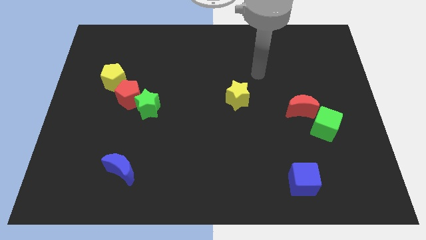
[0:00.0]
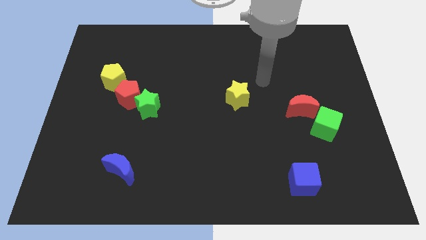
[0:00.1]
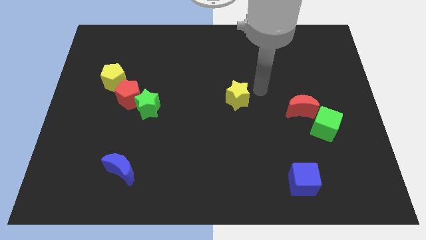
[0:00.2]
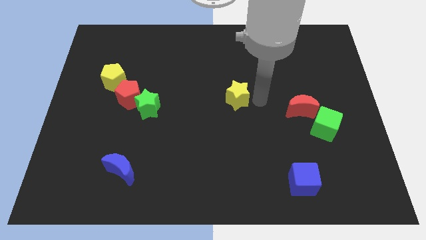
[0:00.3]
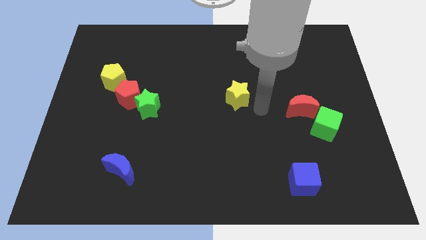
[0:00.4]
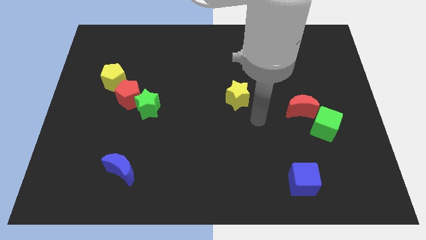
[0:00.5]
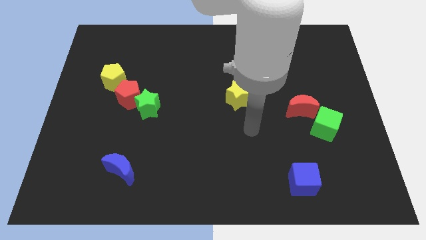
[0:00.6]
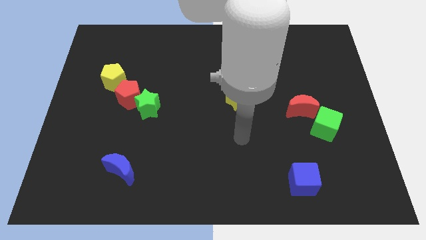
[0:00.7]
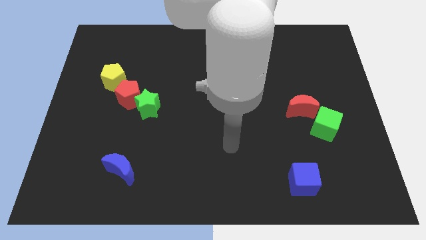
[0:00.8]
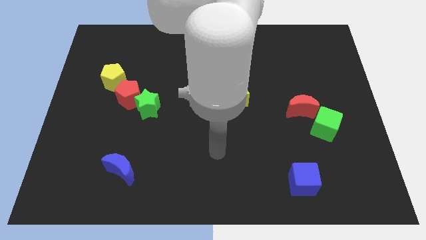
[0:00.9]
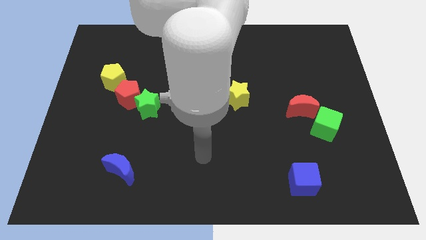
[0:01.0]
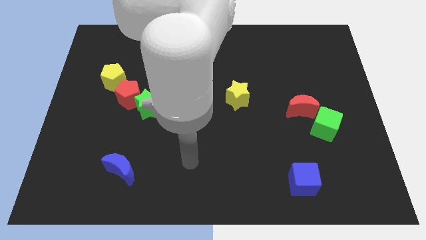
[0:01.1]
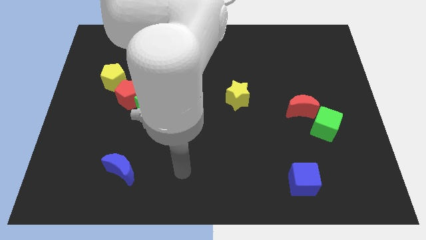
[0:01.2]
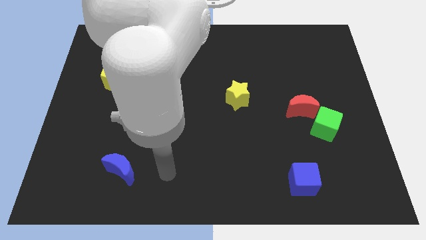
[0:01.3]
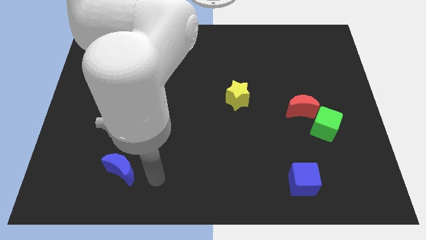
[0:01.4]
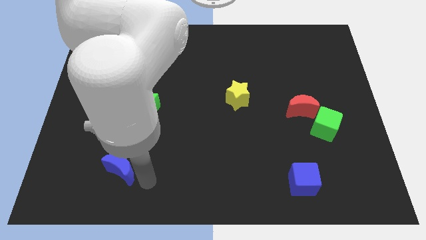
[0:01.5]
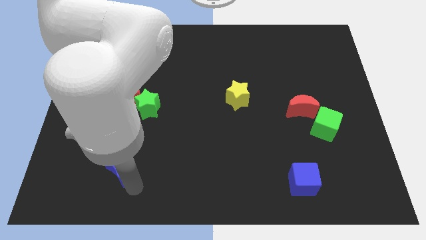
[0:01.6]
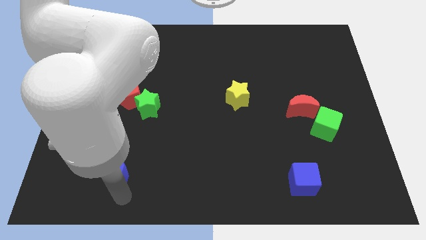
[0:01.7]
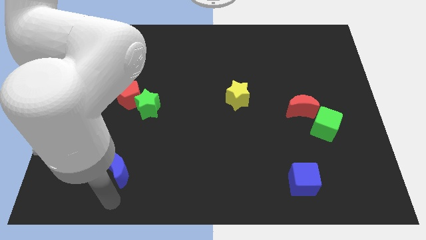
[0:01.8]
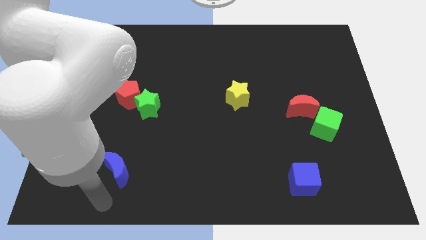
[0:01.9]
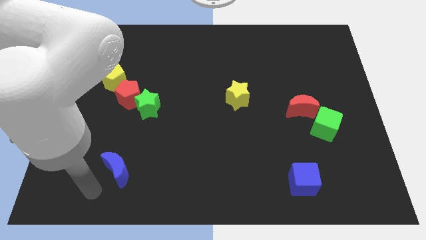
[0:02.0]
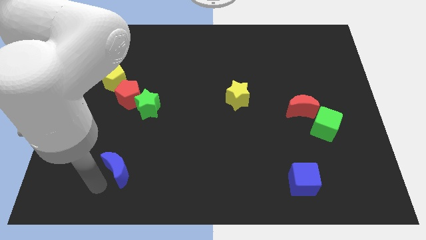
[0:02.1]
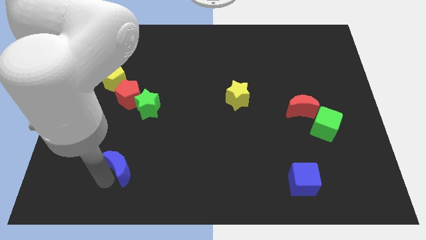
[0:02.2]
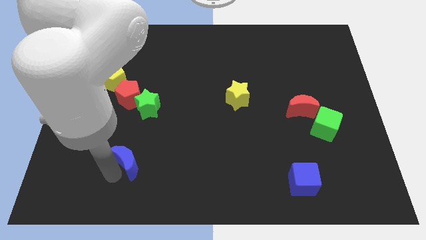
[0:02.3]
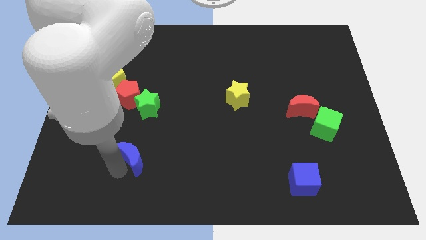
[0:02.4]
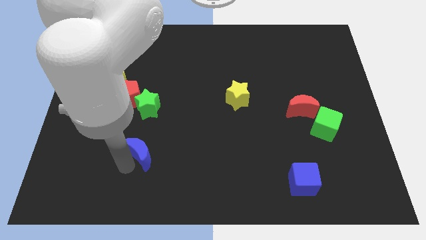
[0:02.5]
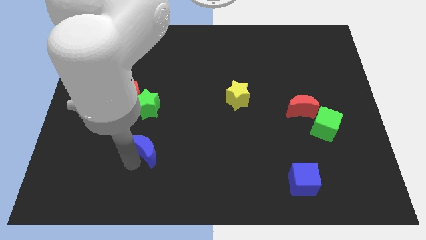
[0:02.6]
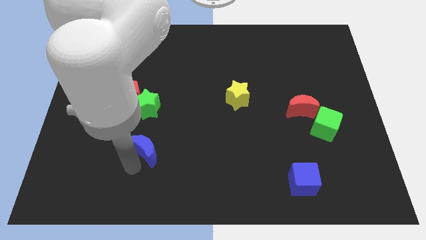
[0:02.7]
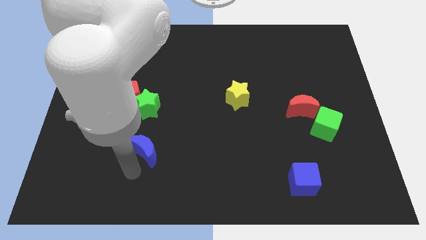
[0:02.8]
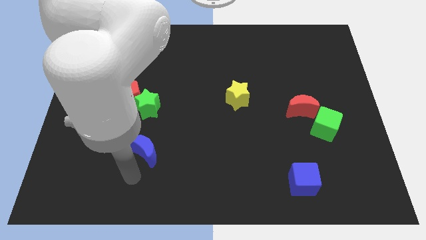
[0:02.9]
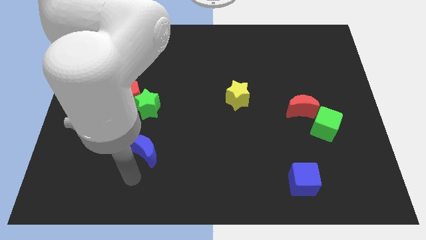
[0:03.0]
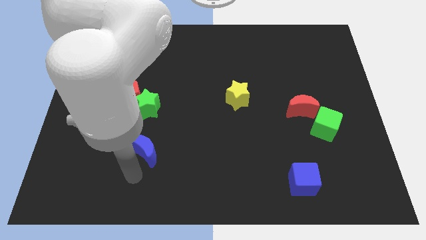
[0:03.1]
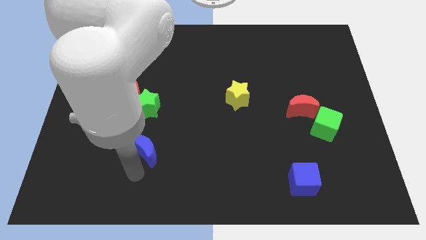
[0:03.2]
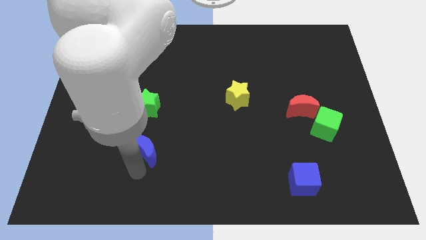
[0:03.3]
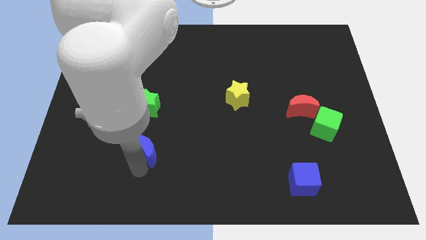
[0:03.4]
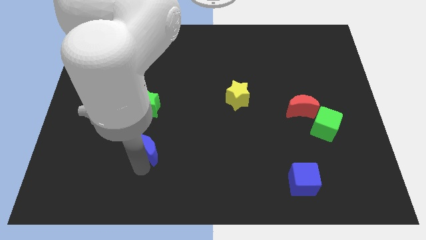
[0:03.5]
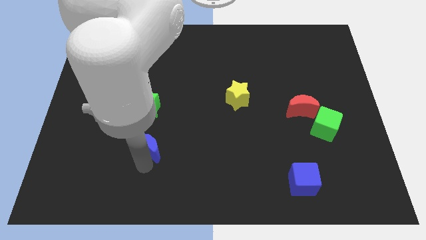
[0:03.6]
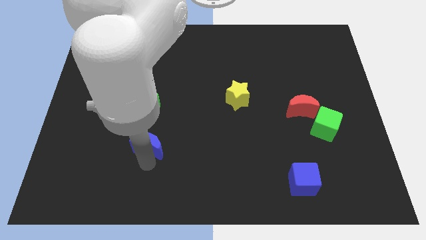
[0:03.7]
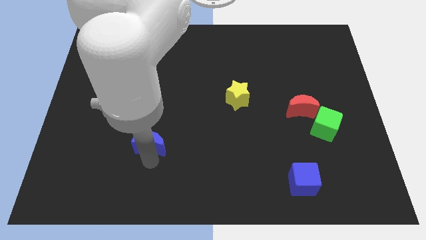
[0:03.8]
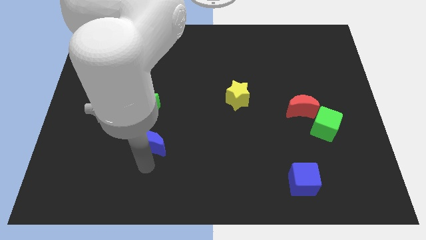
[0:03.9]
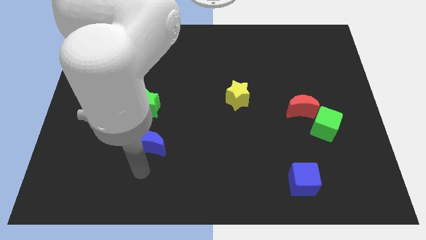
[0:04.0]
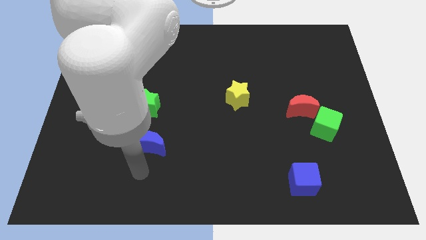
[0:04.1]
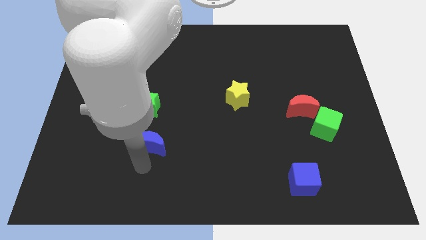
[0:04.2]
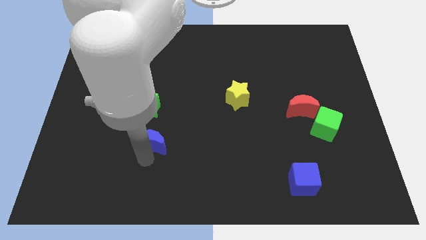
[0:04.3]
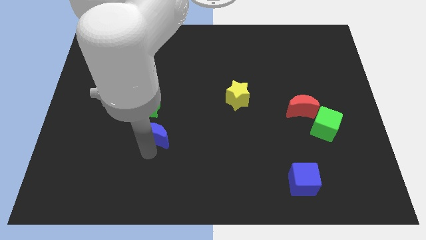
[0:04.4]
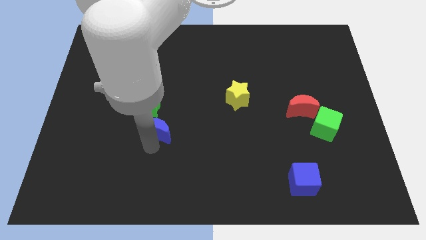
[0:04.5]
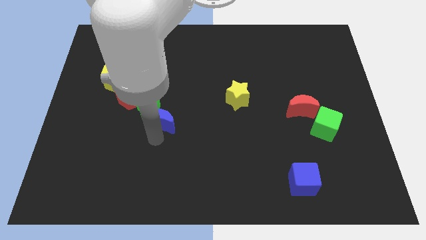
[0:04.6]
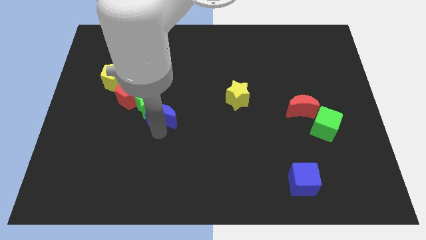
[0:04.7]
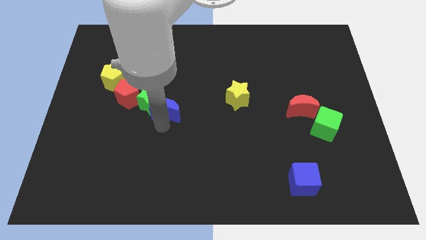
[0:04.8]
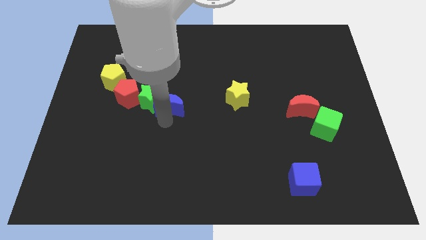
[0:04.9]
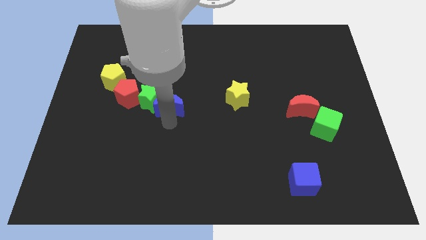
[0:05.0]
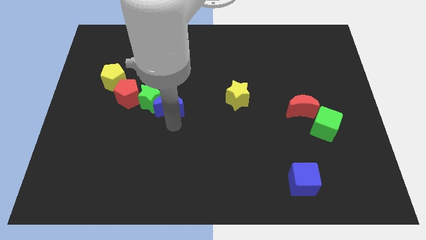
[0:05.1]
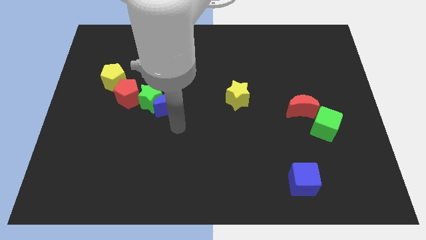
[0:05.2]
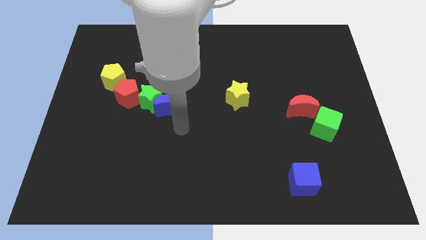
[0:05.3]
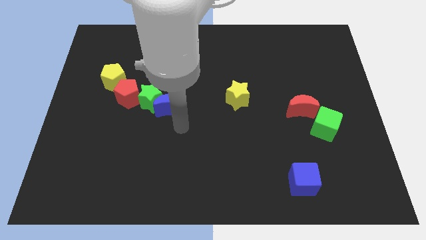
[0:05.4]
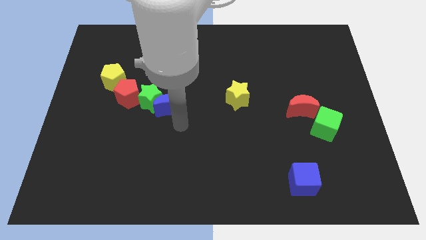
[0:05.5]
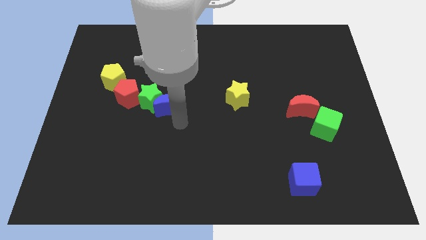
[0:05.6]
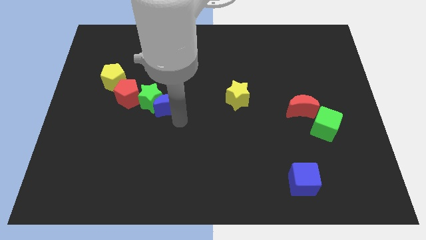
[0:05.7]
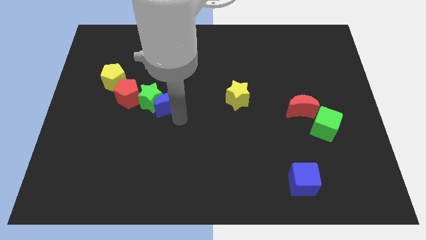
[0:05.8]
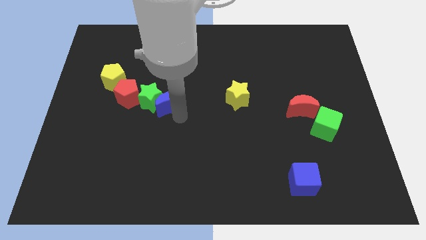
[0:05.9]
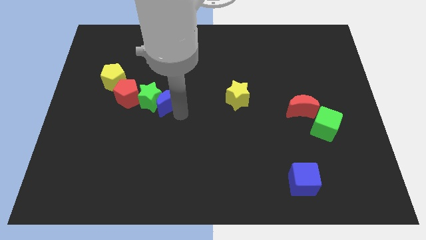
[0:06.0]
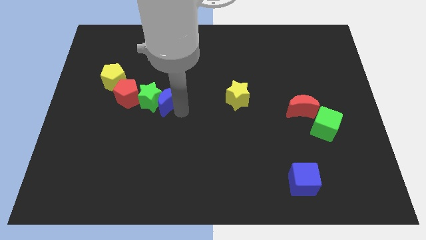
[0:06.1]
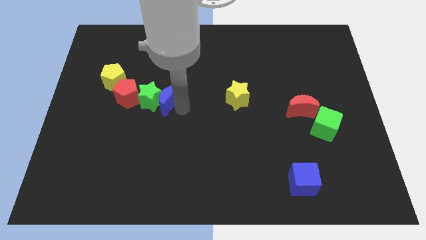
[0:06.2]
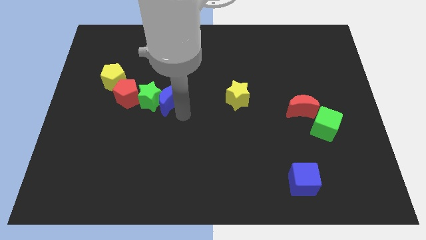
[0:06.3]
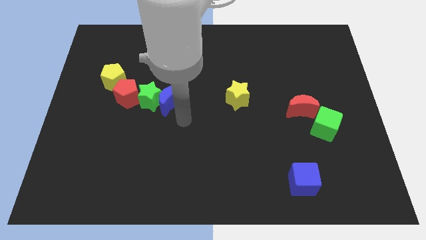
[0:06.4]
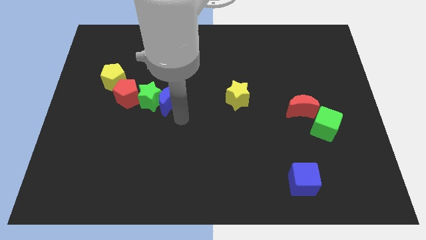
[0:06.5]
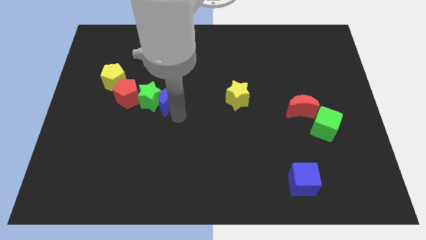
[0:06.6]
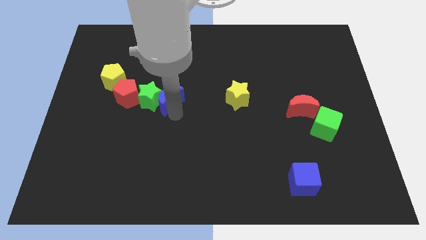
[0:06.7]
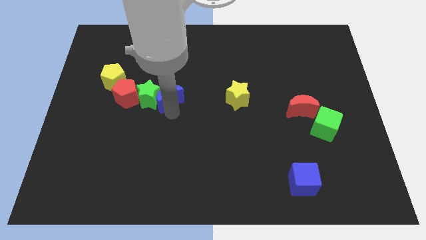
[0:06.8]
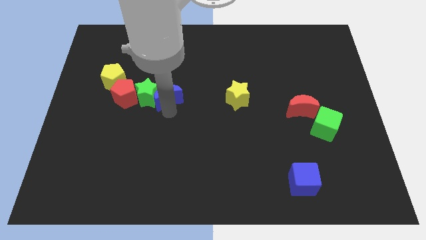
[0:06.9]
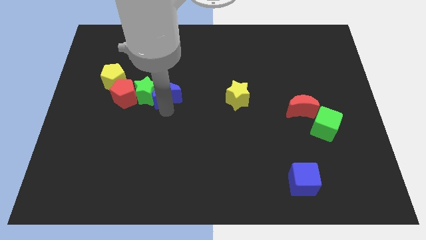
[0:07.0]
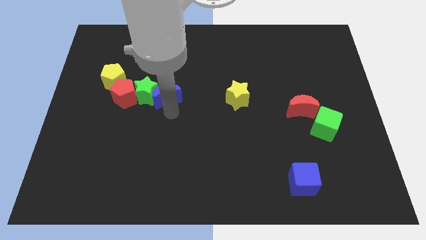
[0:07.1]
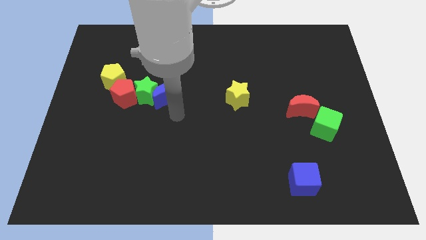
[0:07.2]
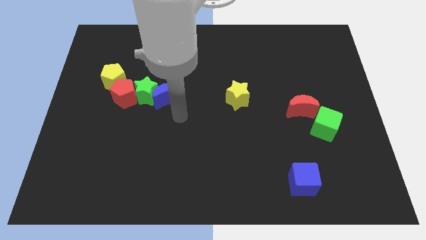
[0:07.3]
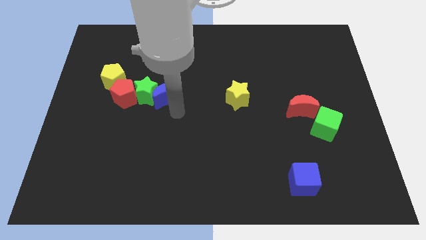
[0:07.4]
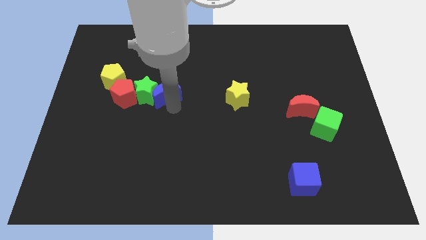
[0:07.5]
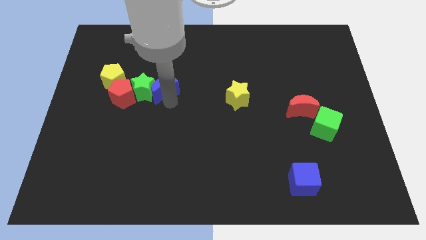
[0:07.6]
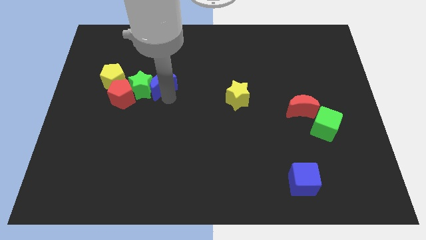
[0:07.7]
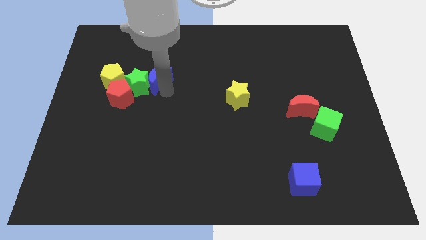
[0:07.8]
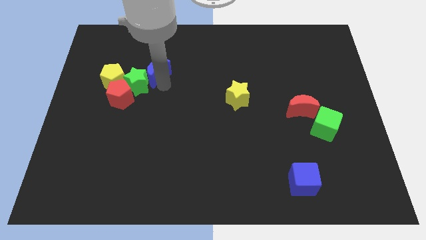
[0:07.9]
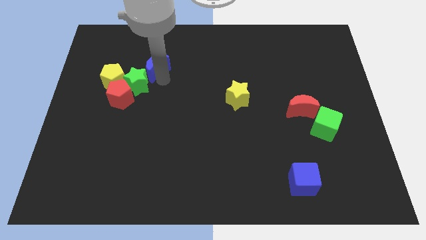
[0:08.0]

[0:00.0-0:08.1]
move the blue moon to the top right side of the yellow pentagon
